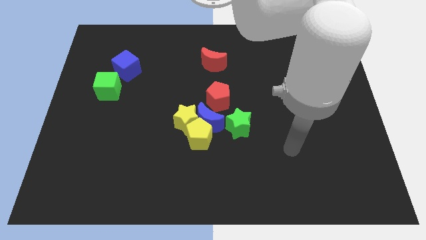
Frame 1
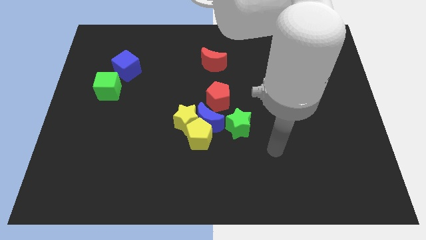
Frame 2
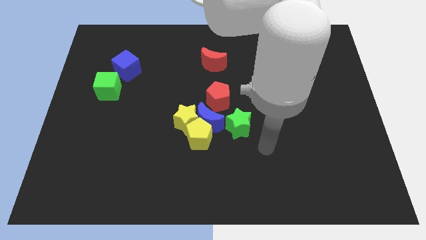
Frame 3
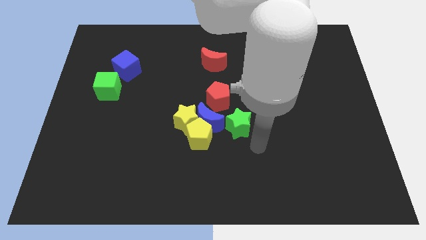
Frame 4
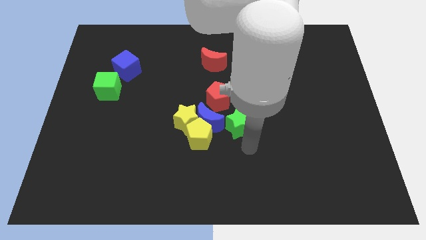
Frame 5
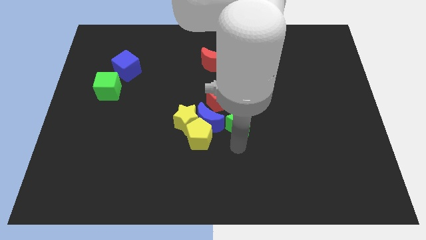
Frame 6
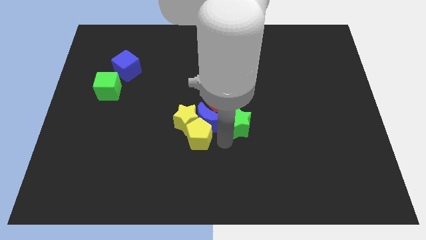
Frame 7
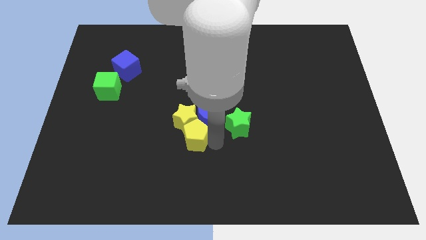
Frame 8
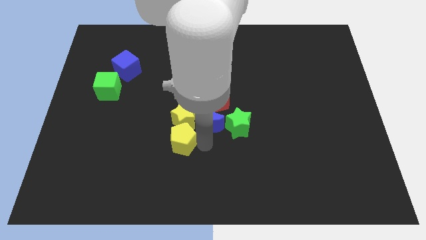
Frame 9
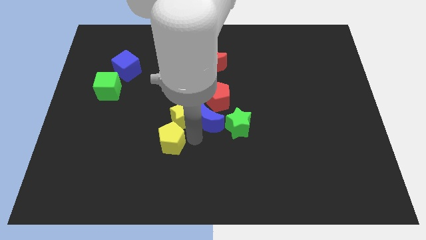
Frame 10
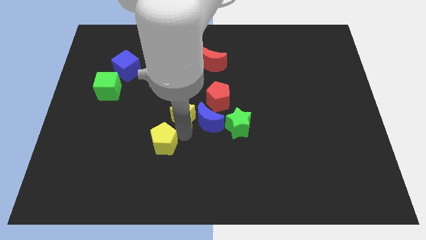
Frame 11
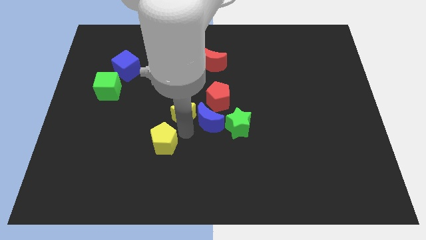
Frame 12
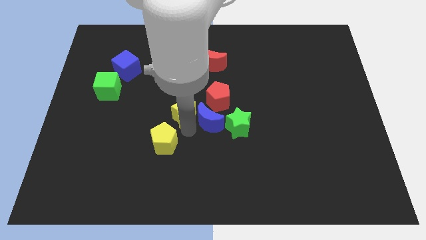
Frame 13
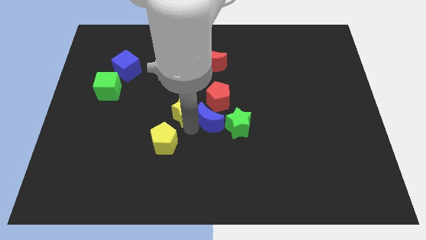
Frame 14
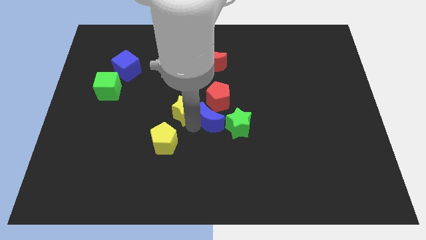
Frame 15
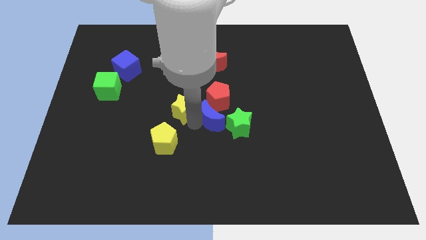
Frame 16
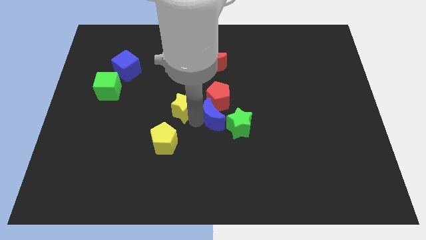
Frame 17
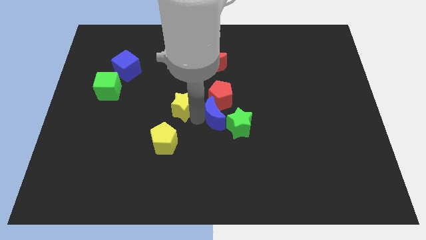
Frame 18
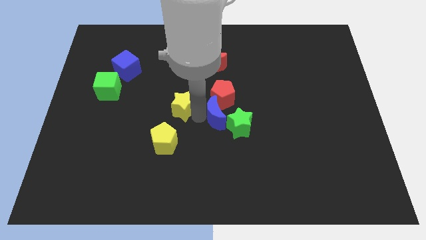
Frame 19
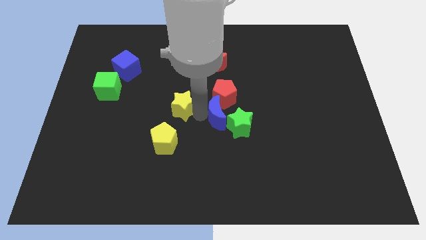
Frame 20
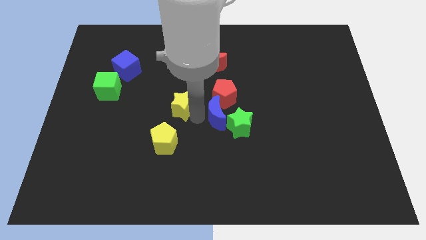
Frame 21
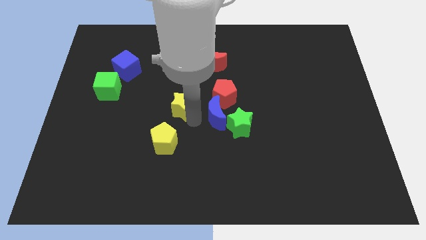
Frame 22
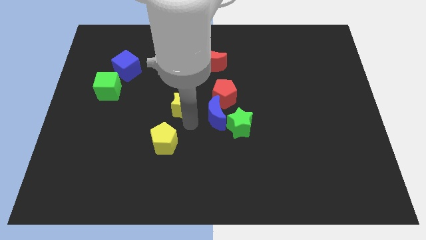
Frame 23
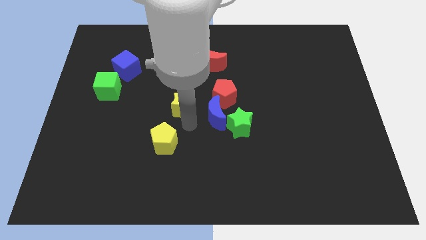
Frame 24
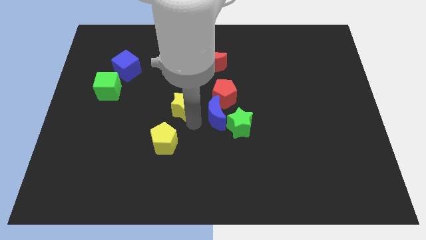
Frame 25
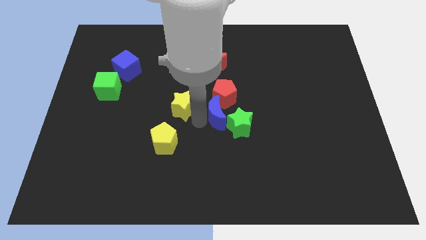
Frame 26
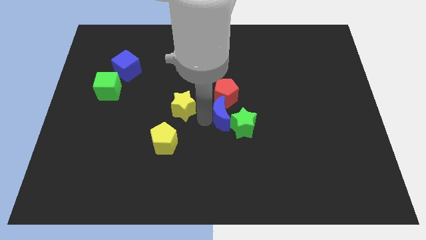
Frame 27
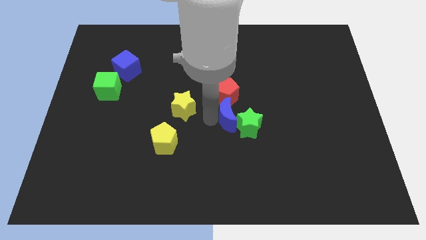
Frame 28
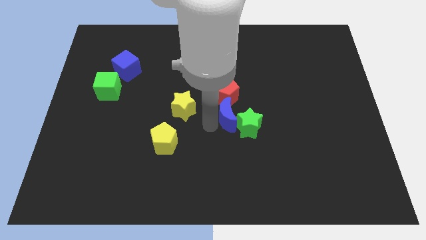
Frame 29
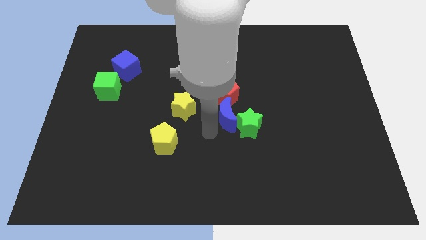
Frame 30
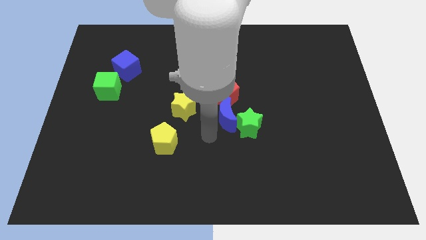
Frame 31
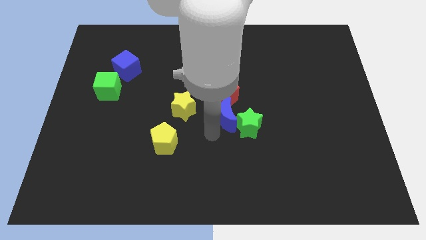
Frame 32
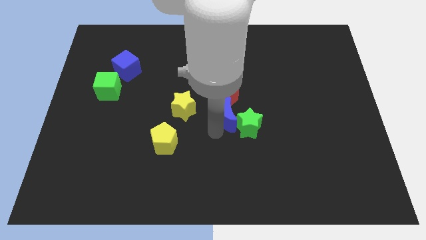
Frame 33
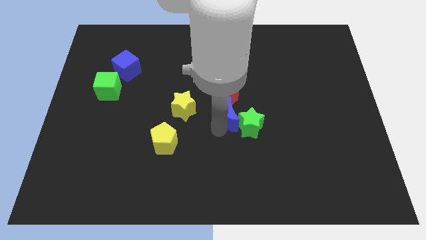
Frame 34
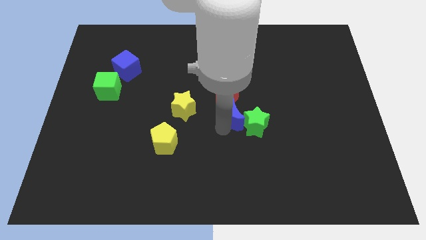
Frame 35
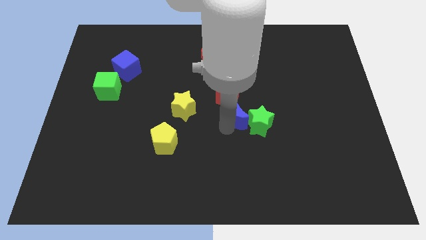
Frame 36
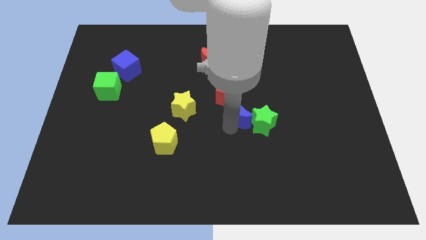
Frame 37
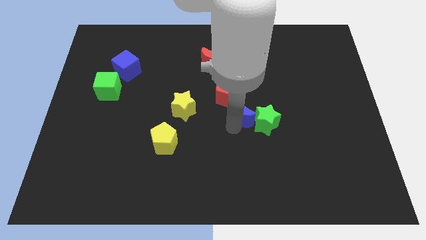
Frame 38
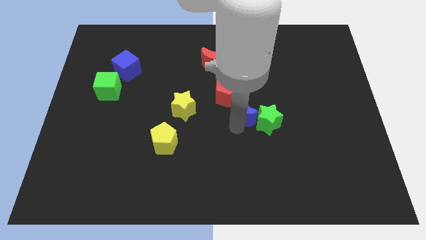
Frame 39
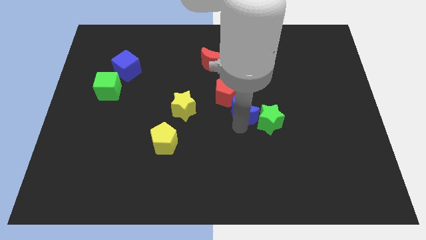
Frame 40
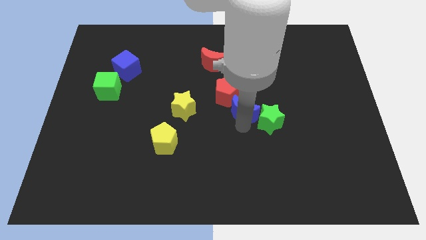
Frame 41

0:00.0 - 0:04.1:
slightly push the blue moon upwards and then right

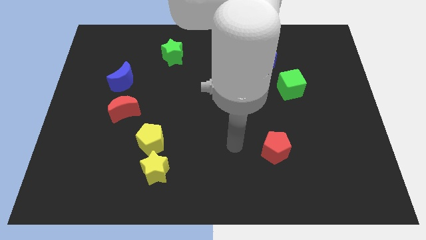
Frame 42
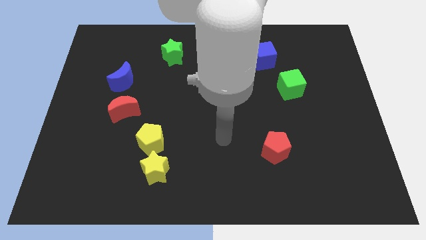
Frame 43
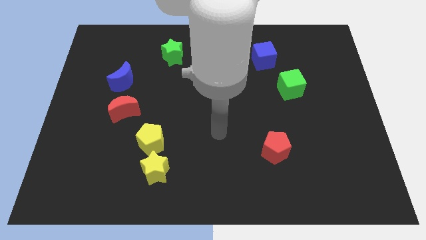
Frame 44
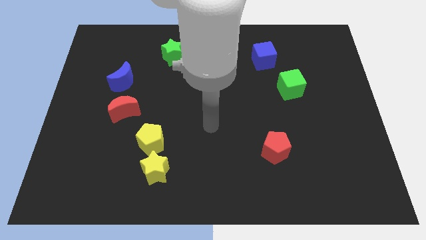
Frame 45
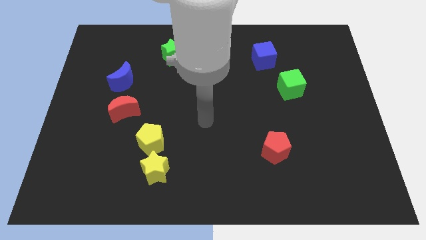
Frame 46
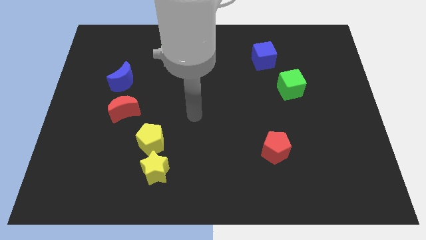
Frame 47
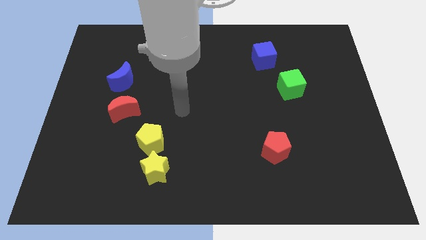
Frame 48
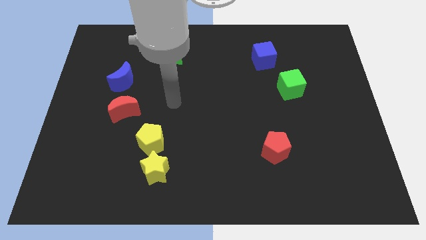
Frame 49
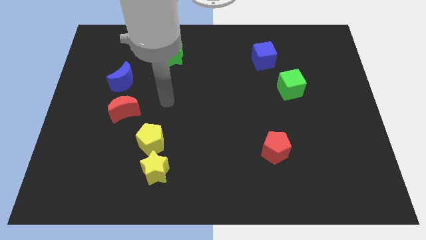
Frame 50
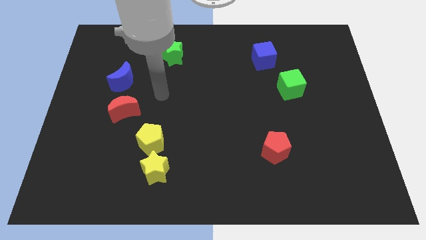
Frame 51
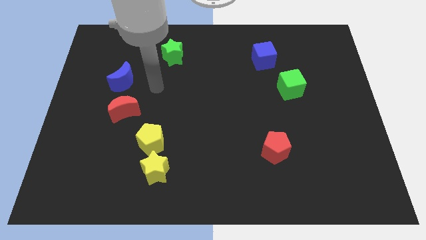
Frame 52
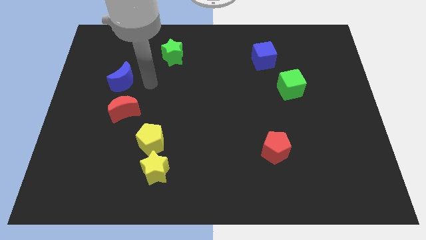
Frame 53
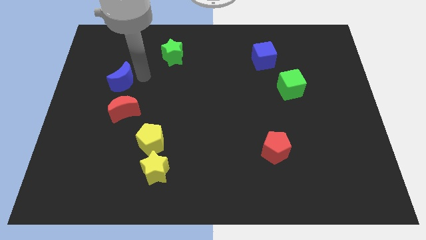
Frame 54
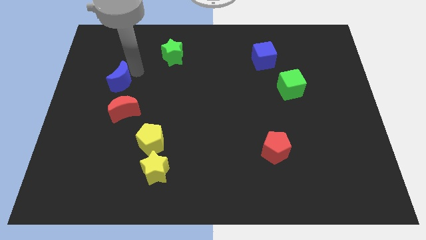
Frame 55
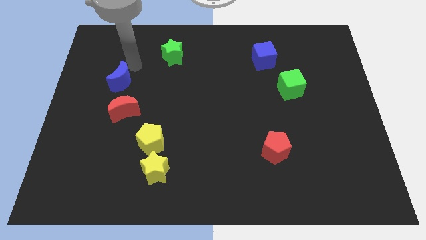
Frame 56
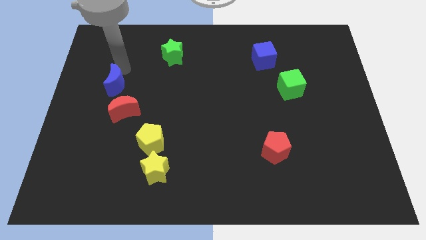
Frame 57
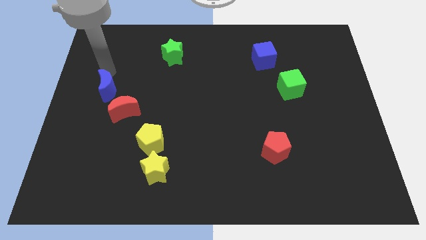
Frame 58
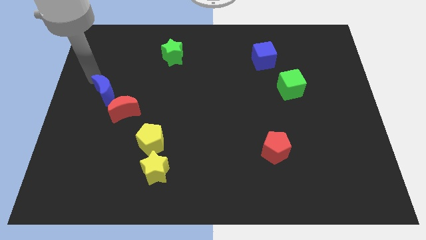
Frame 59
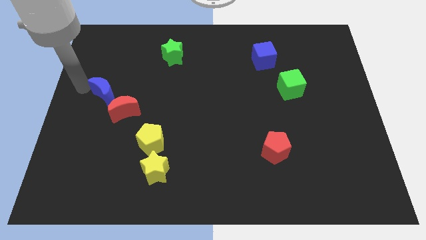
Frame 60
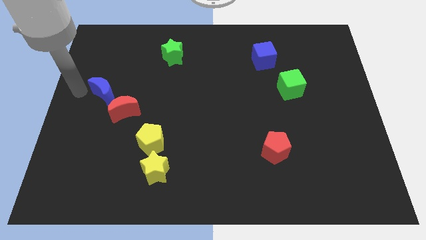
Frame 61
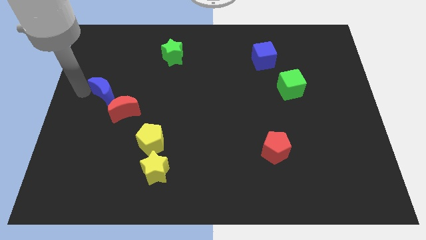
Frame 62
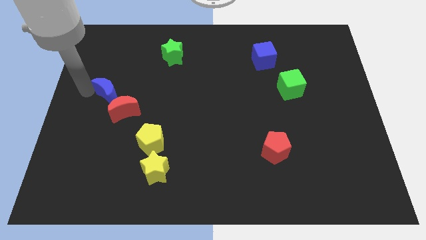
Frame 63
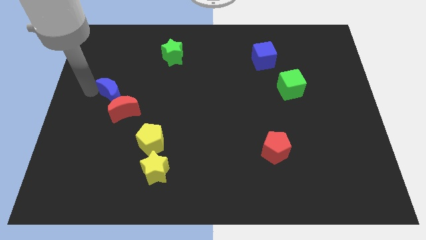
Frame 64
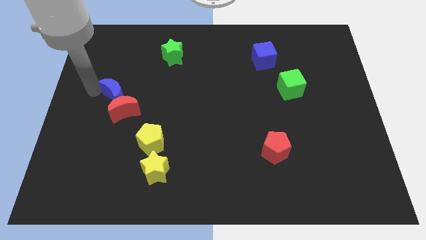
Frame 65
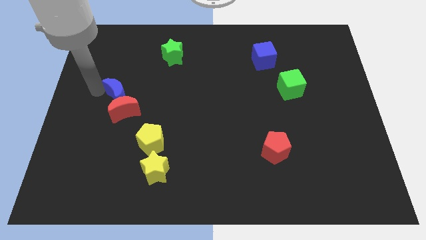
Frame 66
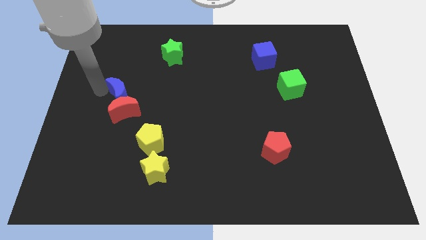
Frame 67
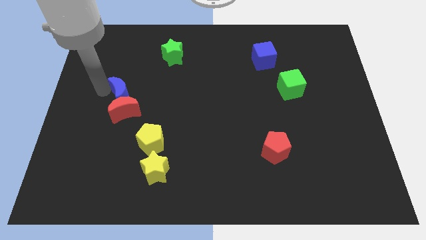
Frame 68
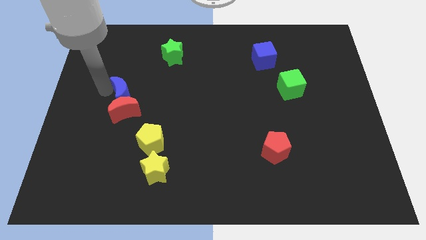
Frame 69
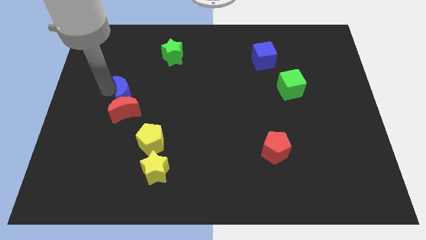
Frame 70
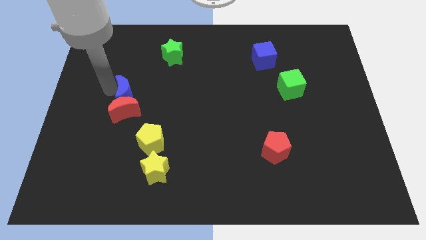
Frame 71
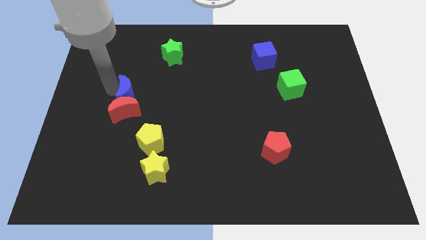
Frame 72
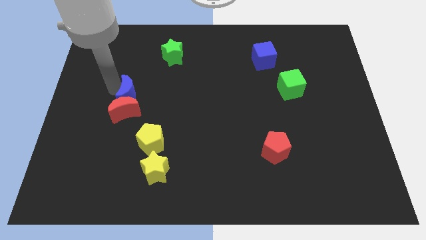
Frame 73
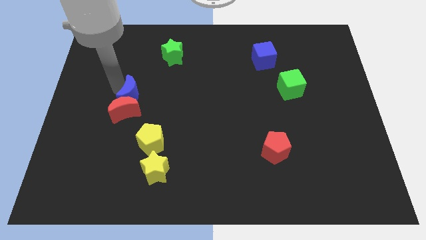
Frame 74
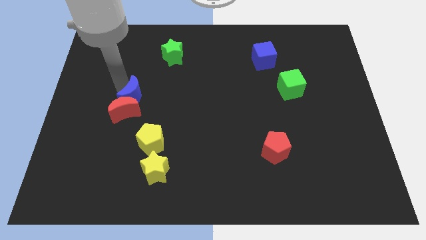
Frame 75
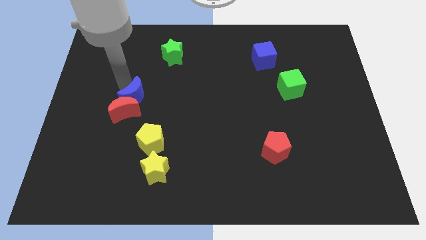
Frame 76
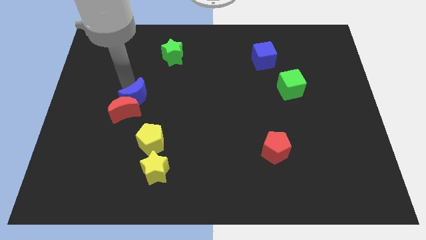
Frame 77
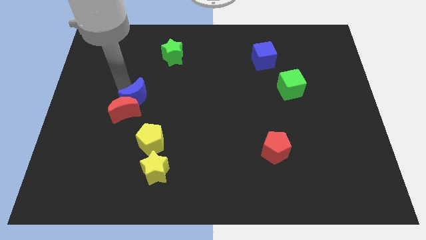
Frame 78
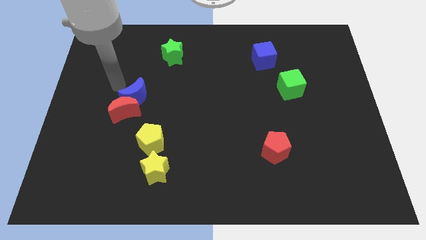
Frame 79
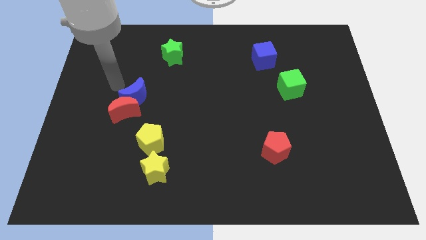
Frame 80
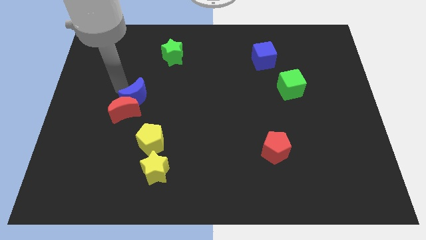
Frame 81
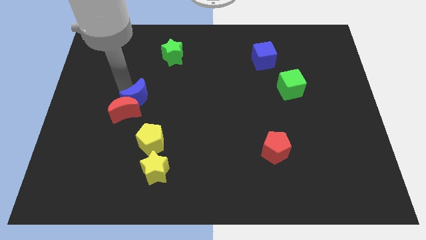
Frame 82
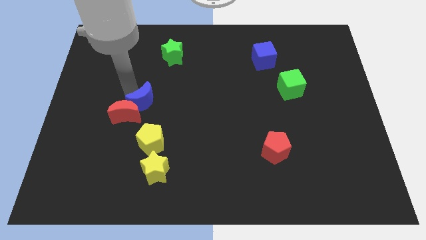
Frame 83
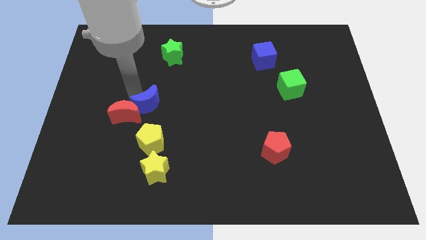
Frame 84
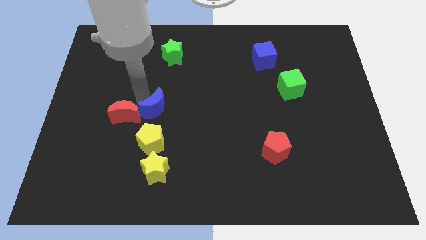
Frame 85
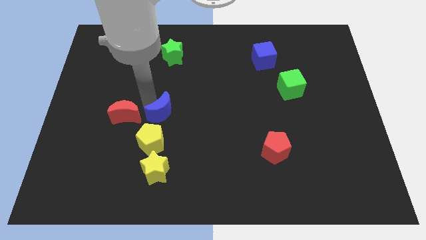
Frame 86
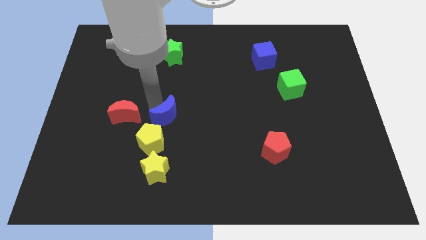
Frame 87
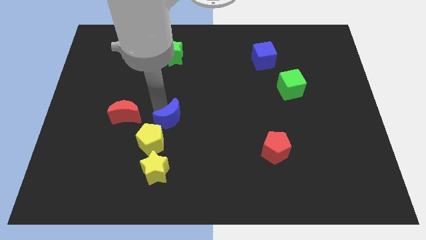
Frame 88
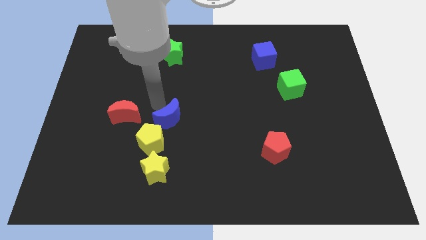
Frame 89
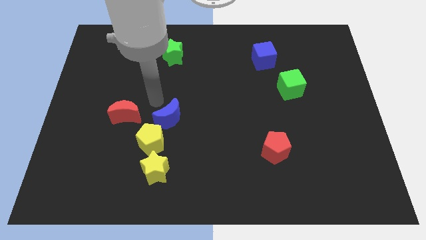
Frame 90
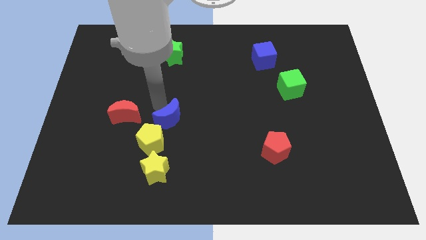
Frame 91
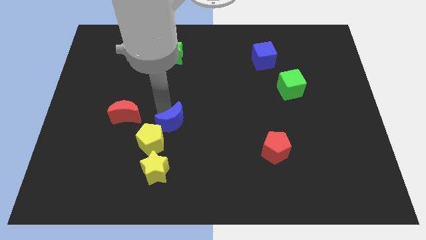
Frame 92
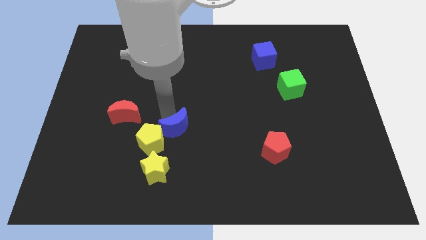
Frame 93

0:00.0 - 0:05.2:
move the blue moon down and right diagonally
